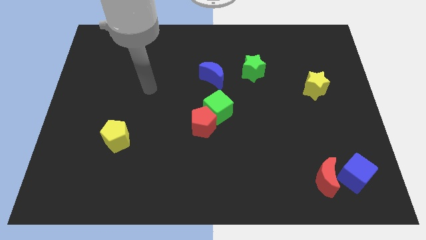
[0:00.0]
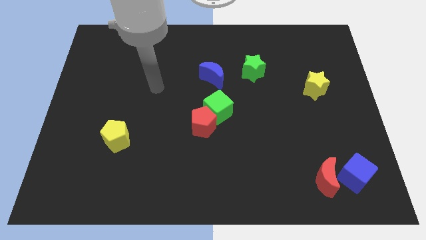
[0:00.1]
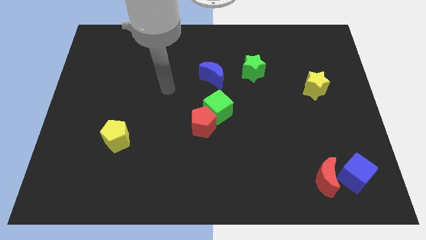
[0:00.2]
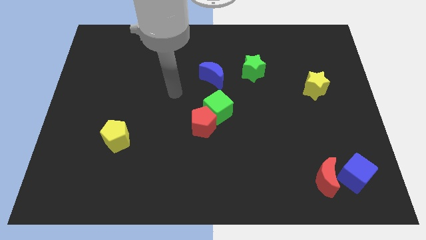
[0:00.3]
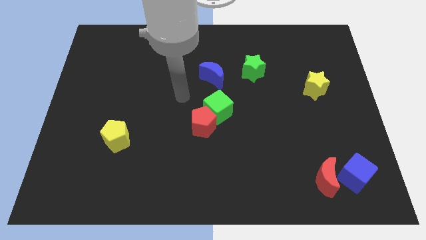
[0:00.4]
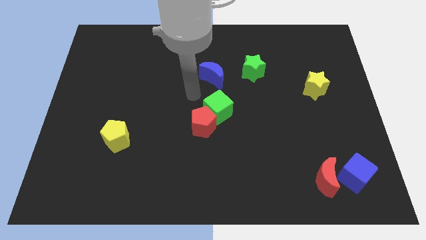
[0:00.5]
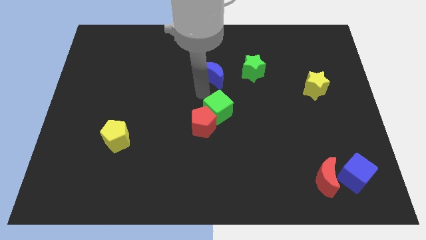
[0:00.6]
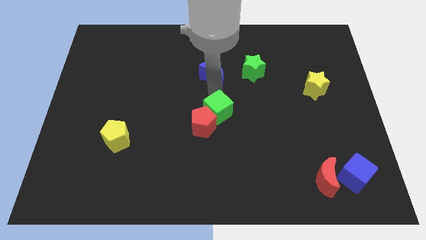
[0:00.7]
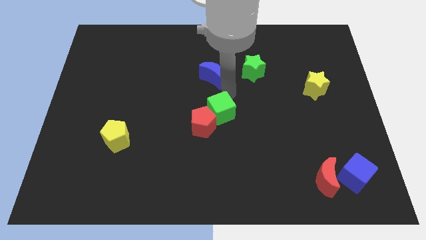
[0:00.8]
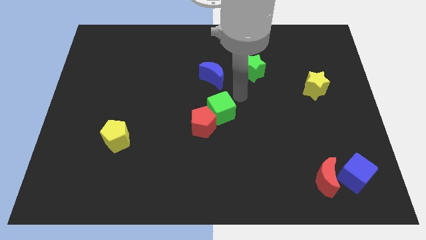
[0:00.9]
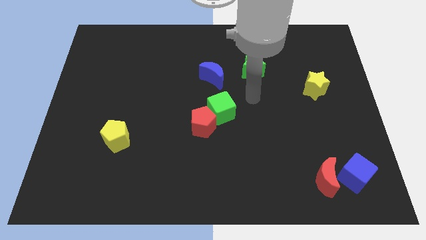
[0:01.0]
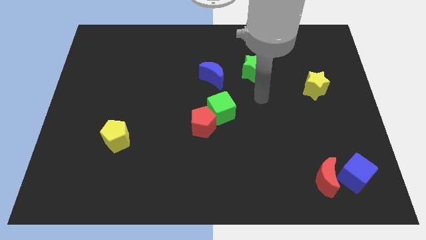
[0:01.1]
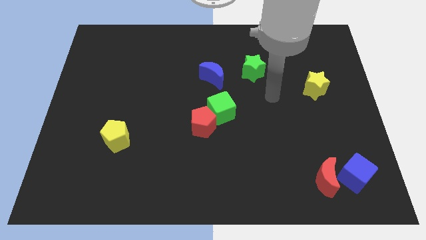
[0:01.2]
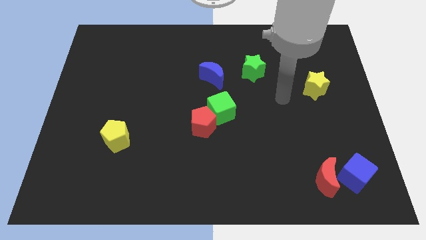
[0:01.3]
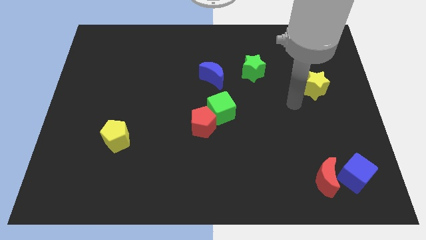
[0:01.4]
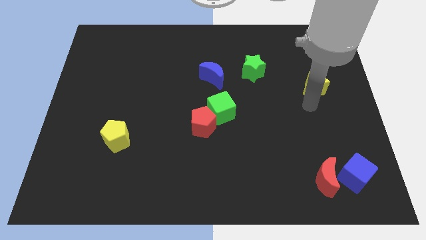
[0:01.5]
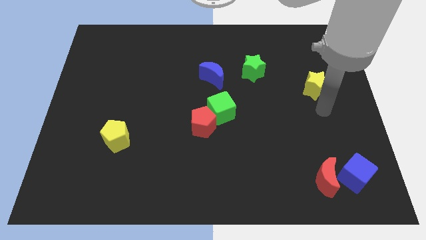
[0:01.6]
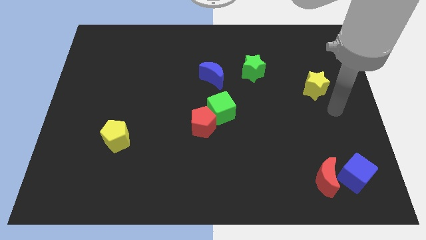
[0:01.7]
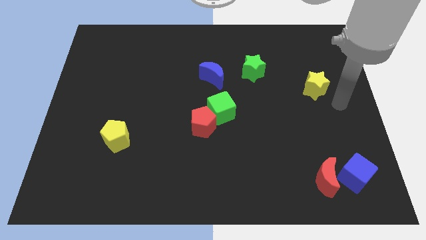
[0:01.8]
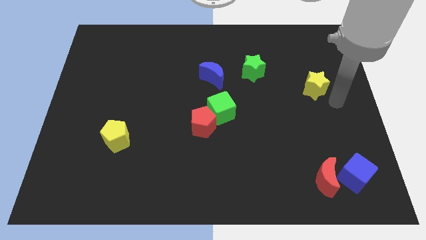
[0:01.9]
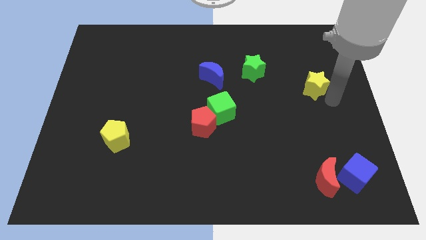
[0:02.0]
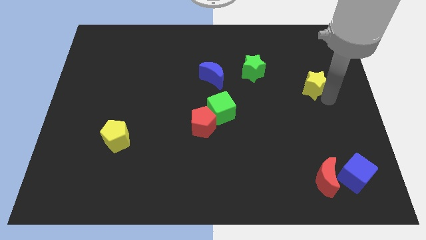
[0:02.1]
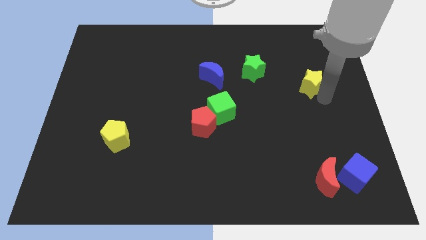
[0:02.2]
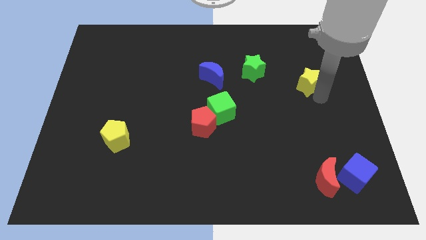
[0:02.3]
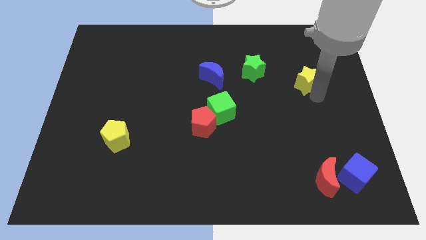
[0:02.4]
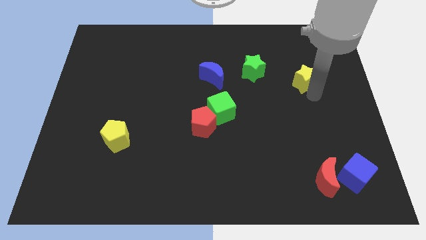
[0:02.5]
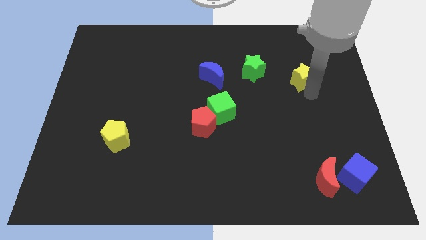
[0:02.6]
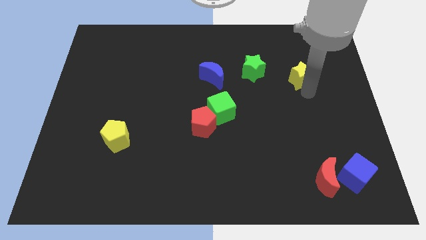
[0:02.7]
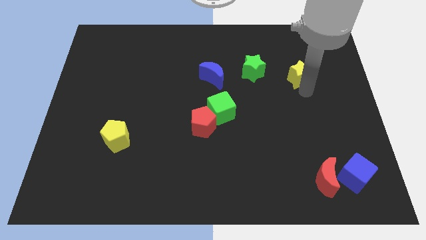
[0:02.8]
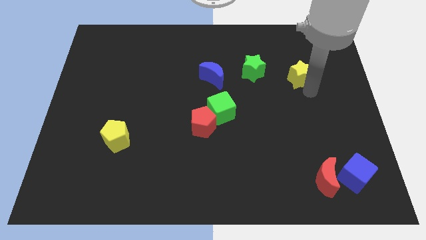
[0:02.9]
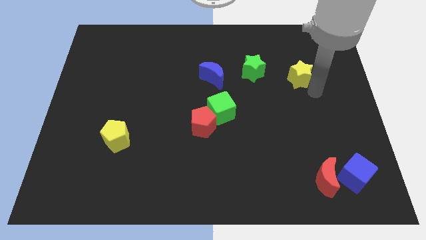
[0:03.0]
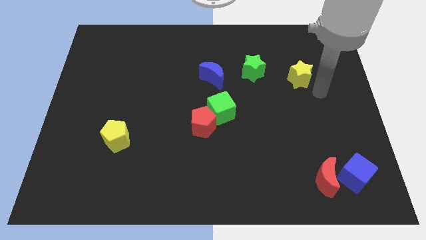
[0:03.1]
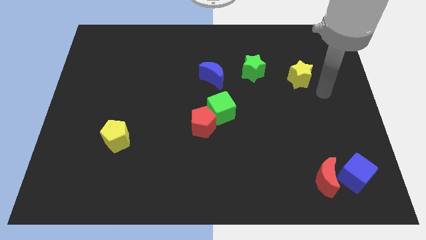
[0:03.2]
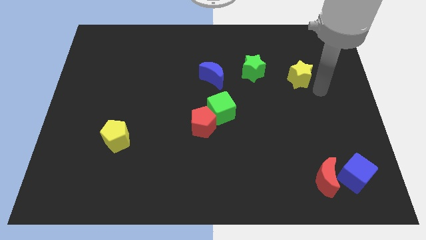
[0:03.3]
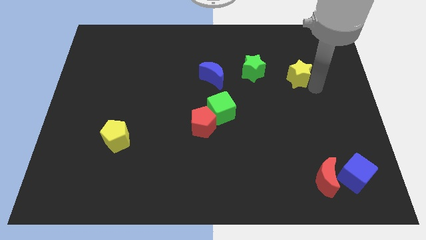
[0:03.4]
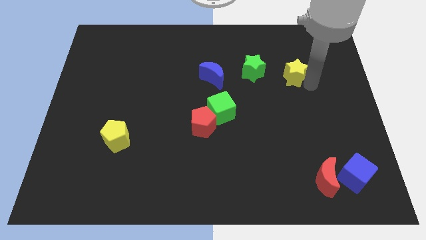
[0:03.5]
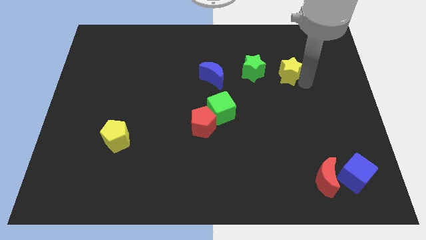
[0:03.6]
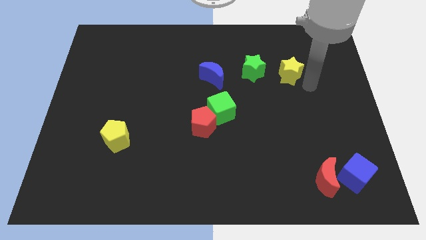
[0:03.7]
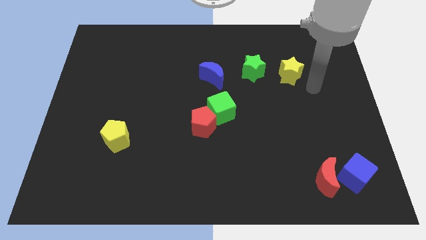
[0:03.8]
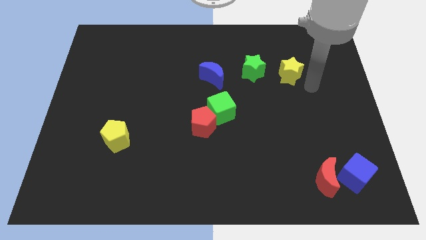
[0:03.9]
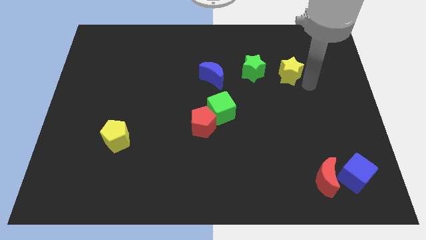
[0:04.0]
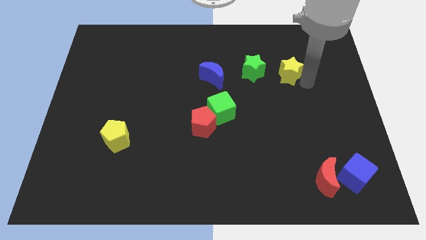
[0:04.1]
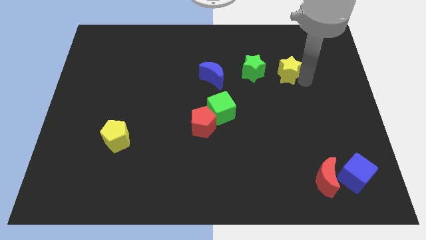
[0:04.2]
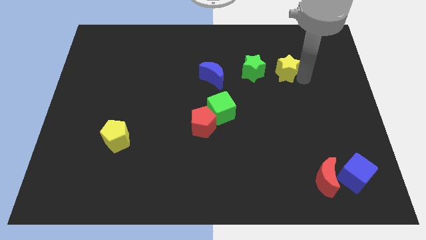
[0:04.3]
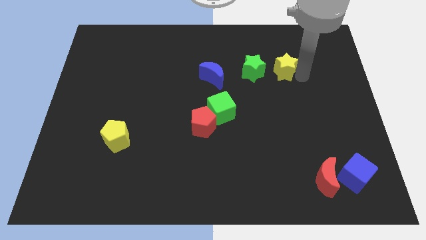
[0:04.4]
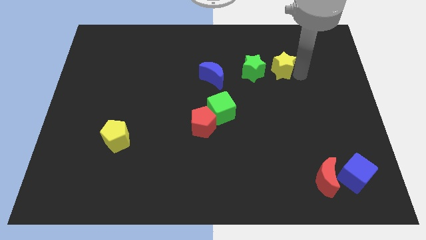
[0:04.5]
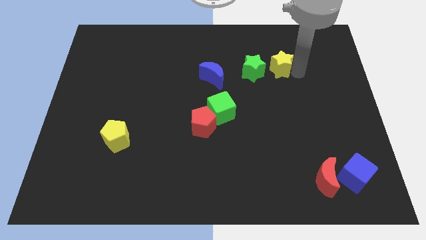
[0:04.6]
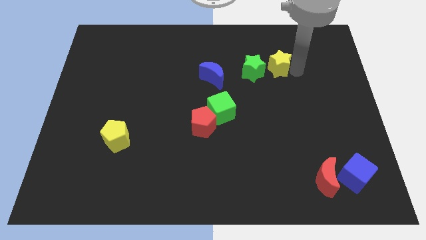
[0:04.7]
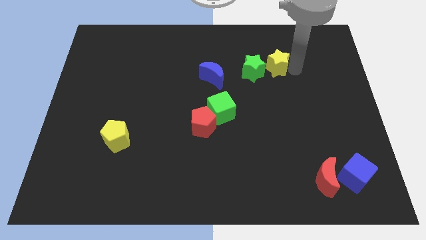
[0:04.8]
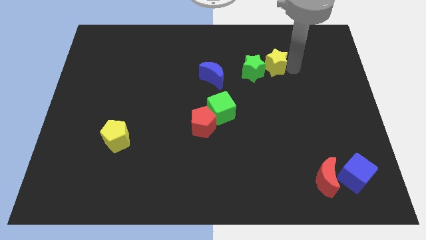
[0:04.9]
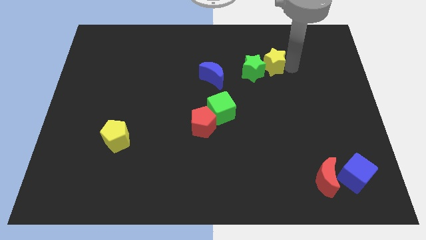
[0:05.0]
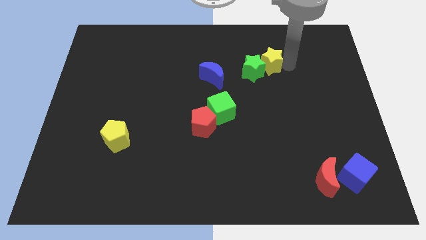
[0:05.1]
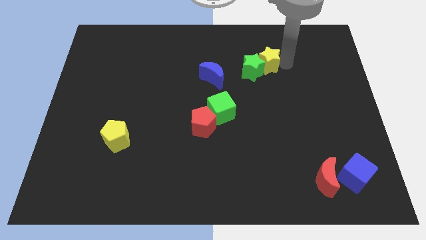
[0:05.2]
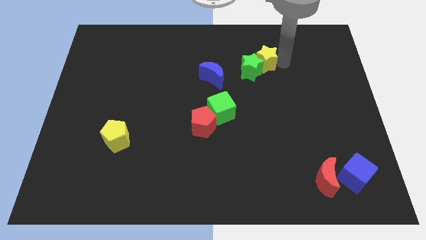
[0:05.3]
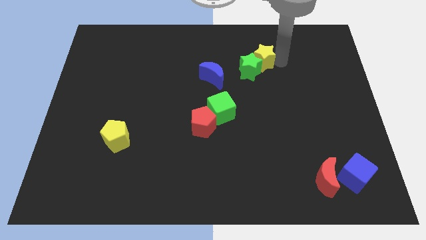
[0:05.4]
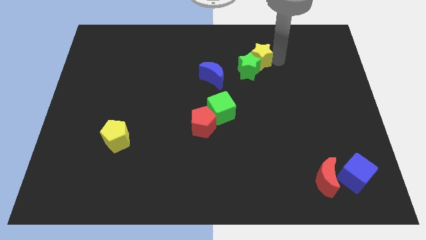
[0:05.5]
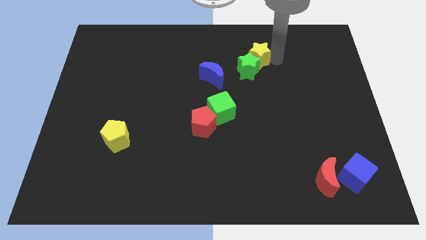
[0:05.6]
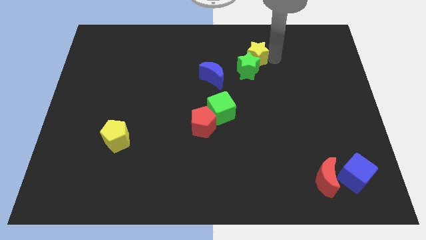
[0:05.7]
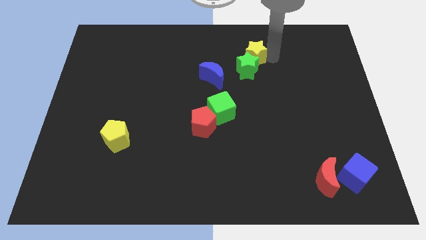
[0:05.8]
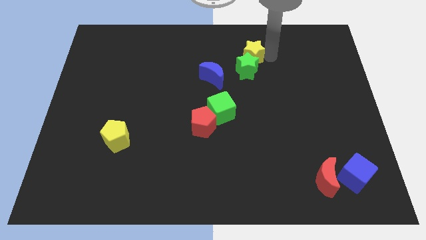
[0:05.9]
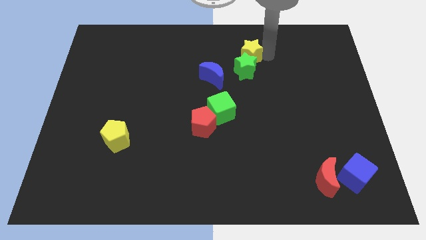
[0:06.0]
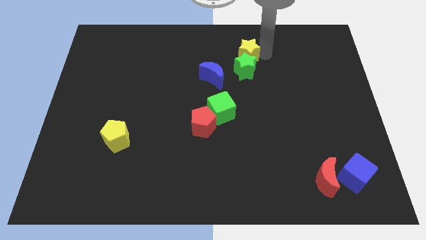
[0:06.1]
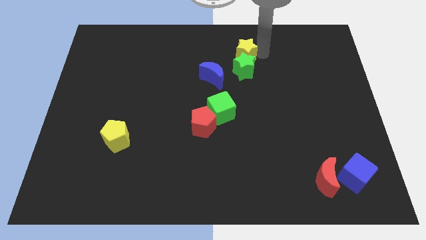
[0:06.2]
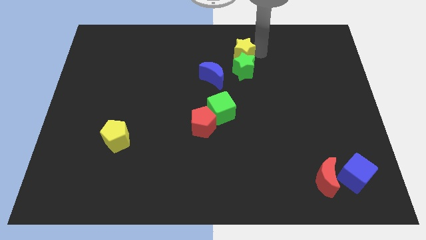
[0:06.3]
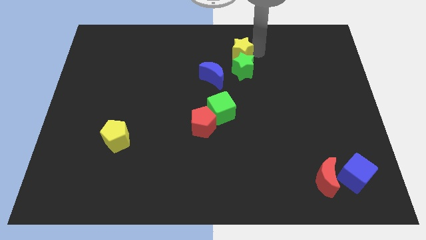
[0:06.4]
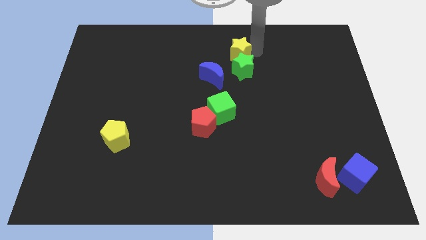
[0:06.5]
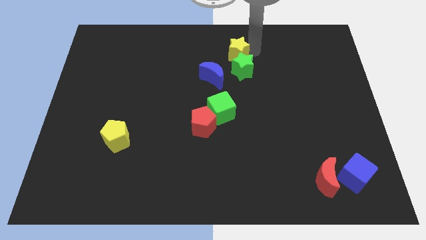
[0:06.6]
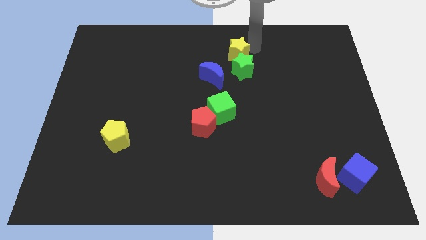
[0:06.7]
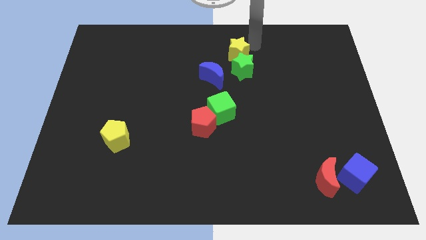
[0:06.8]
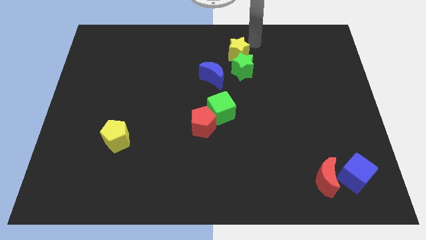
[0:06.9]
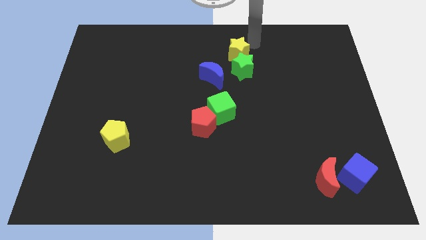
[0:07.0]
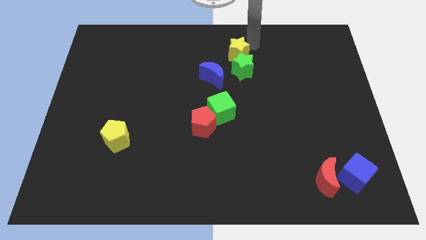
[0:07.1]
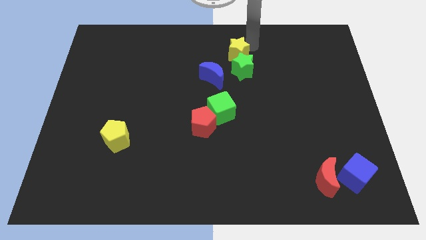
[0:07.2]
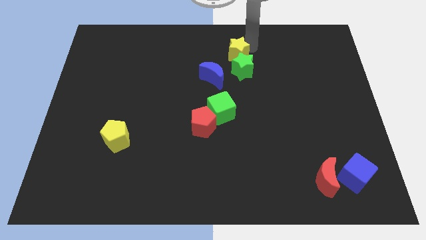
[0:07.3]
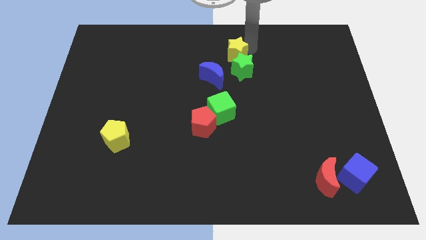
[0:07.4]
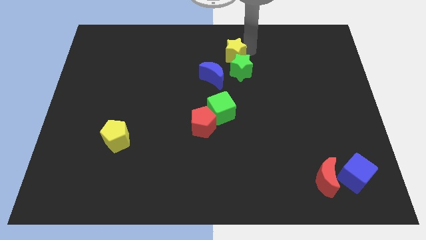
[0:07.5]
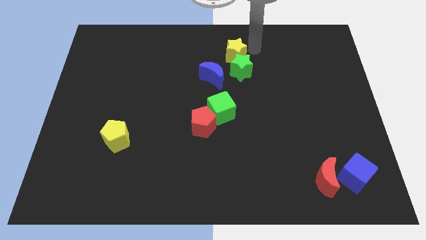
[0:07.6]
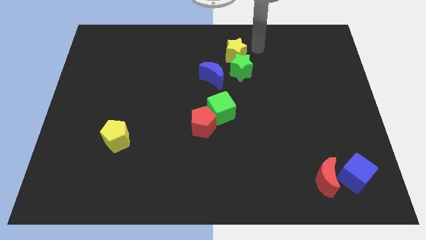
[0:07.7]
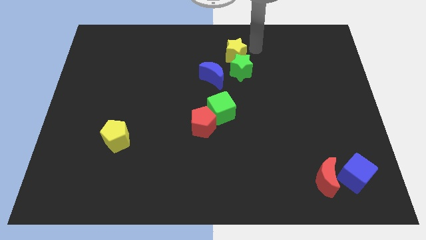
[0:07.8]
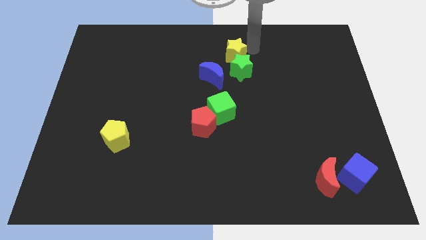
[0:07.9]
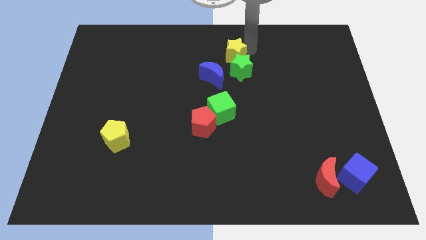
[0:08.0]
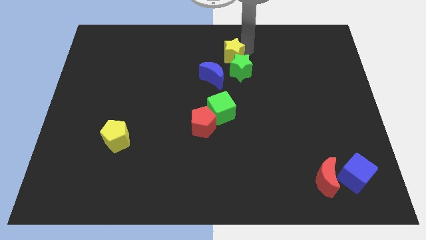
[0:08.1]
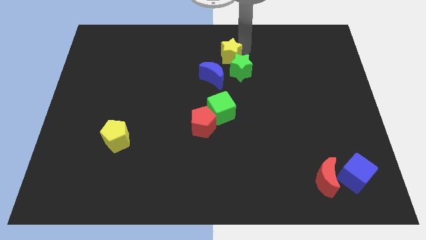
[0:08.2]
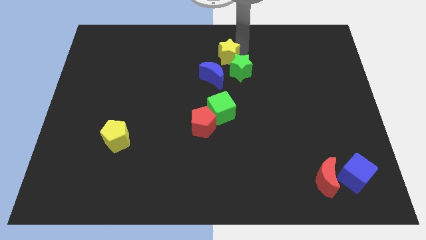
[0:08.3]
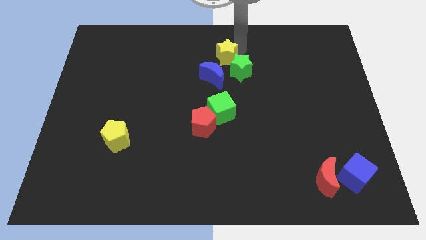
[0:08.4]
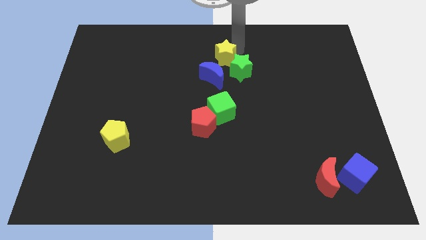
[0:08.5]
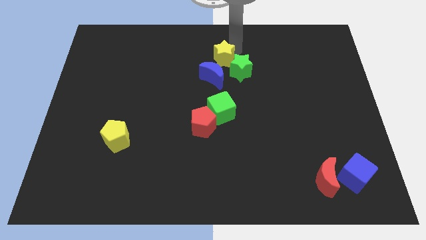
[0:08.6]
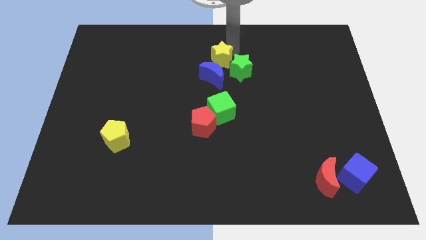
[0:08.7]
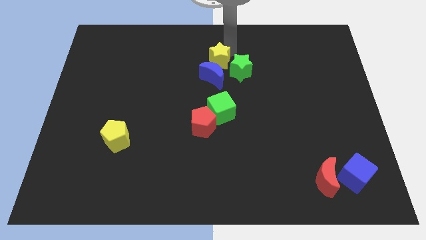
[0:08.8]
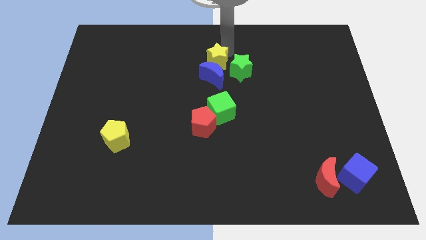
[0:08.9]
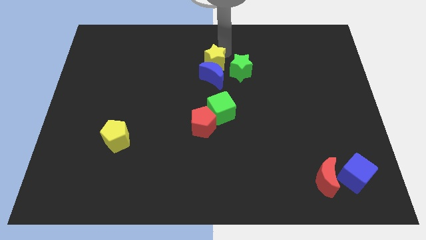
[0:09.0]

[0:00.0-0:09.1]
slide the yellow star left
